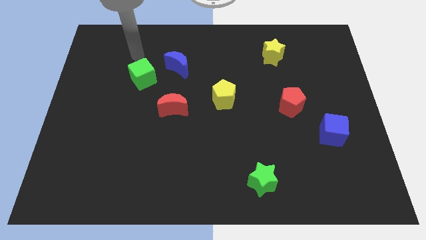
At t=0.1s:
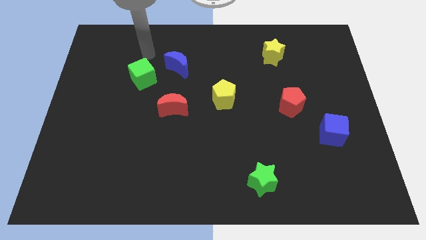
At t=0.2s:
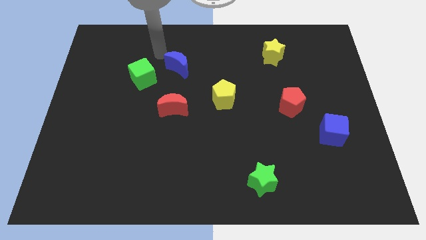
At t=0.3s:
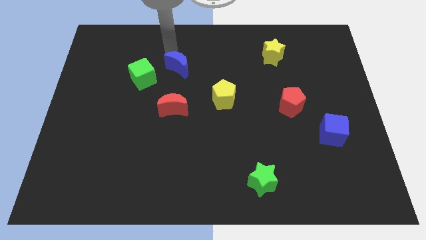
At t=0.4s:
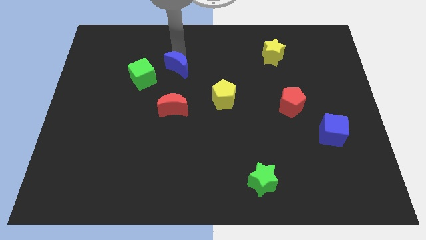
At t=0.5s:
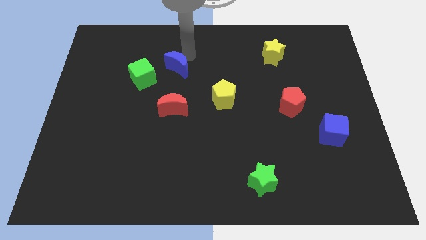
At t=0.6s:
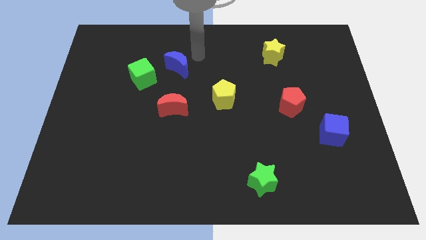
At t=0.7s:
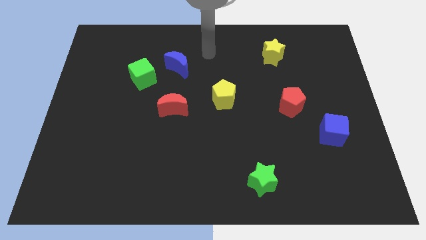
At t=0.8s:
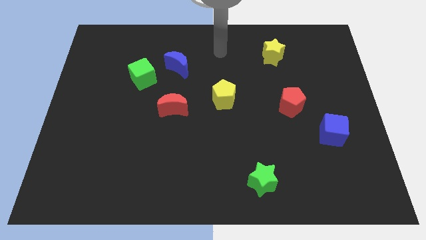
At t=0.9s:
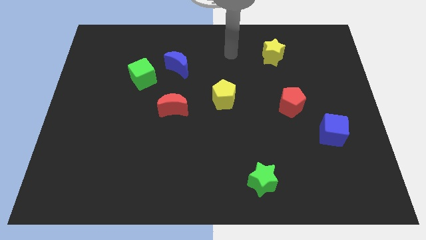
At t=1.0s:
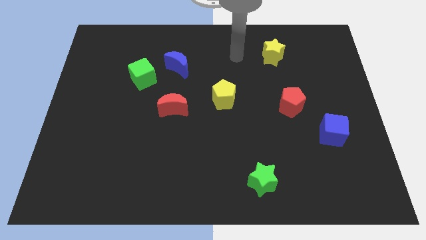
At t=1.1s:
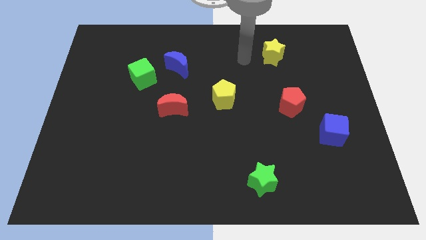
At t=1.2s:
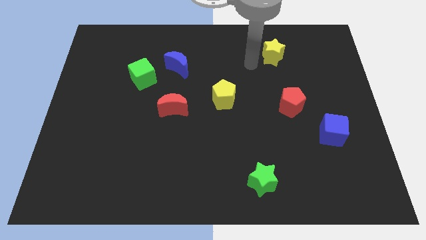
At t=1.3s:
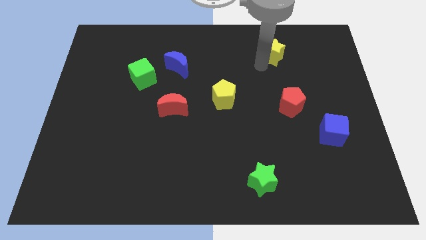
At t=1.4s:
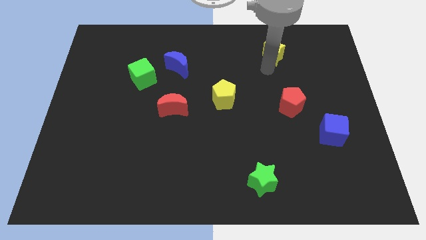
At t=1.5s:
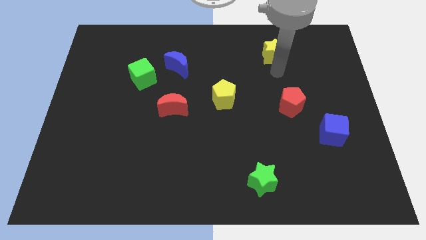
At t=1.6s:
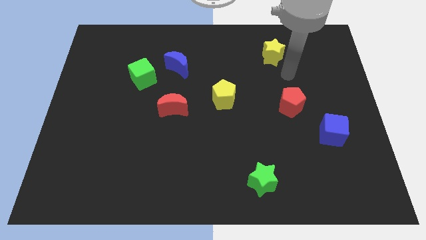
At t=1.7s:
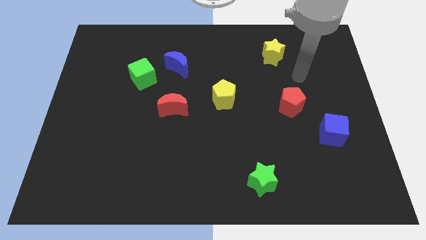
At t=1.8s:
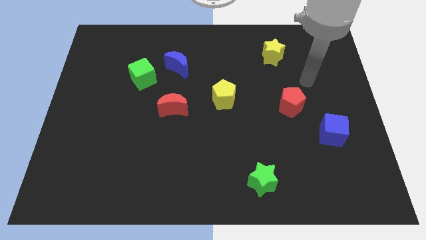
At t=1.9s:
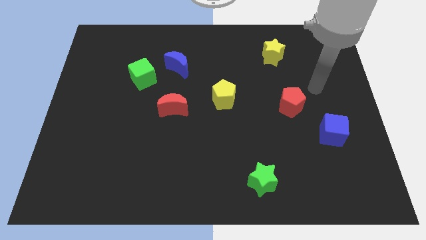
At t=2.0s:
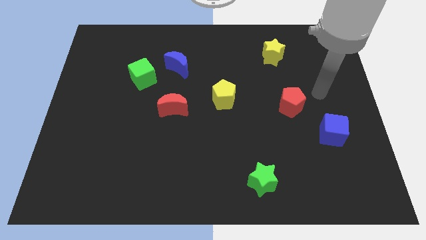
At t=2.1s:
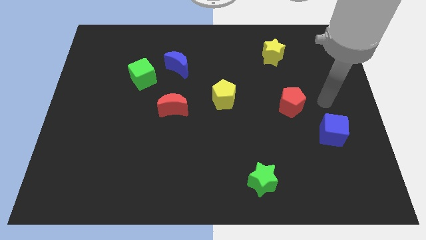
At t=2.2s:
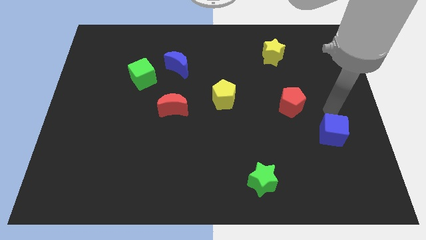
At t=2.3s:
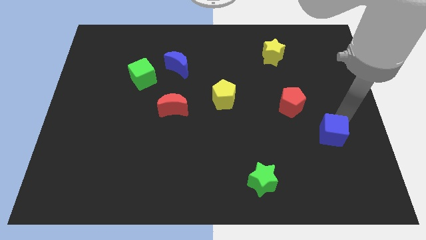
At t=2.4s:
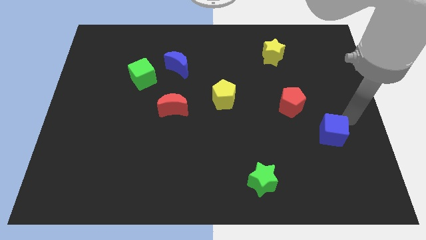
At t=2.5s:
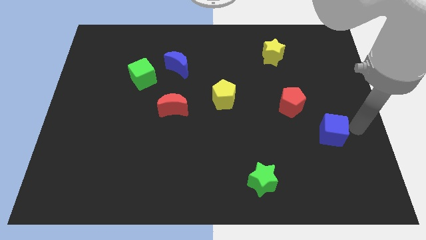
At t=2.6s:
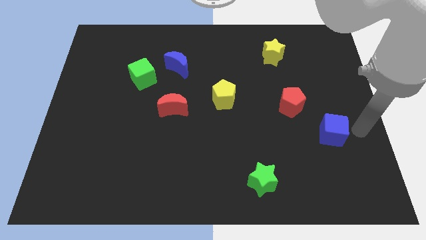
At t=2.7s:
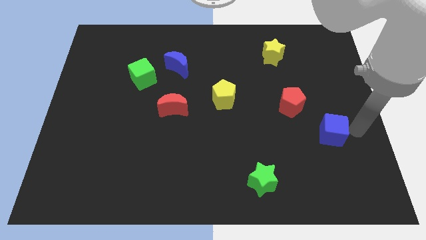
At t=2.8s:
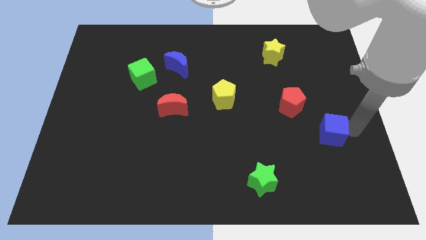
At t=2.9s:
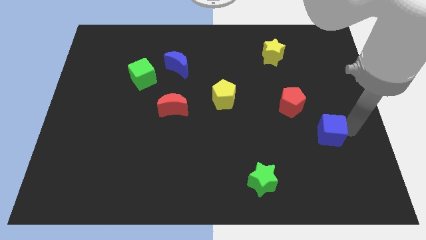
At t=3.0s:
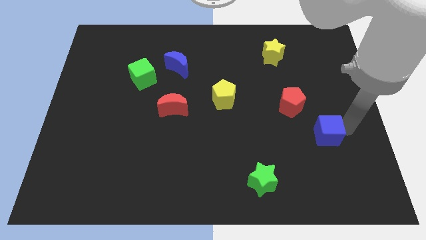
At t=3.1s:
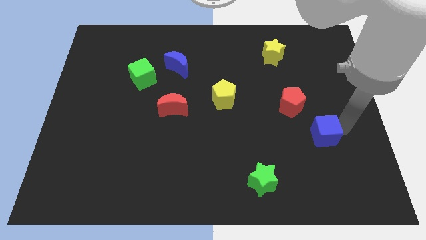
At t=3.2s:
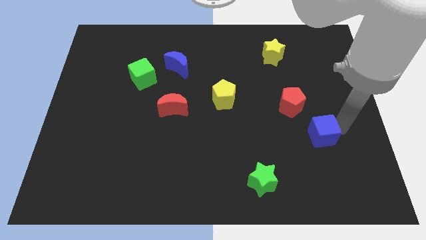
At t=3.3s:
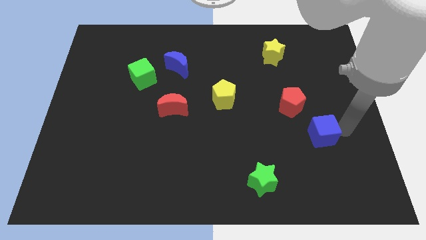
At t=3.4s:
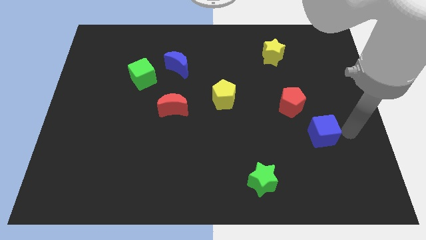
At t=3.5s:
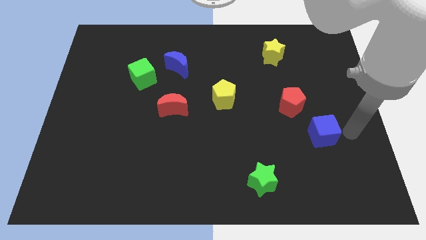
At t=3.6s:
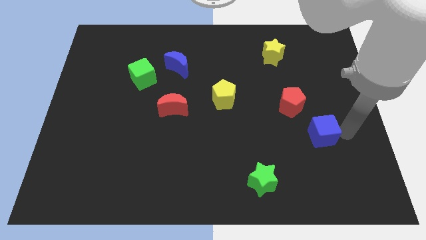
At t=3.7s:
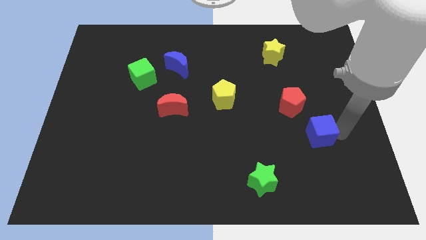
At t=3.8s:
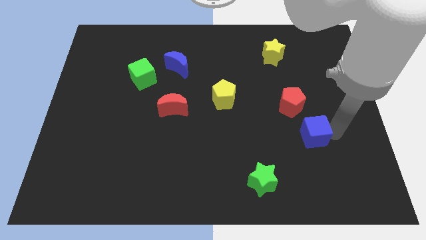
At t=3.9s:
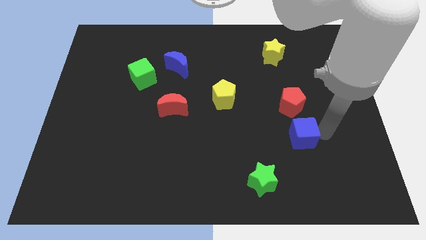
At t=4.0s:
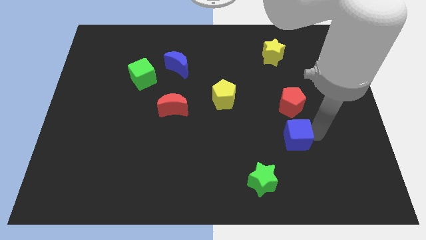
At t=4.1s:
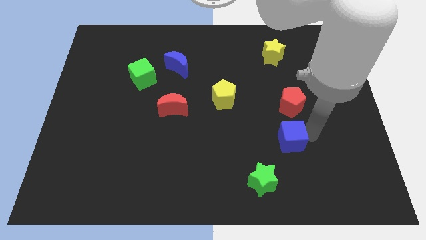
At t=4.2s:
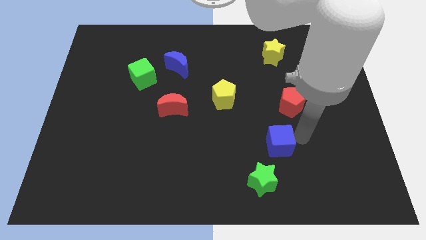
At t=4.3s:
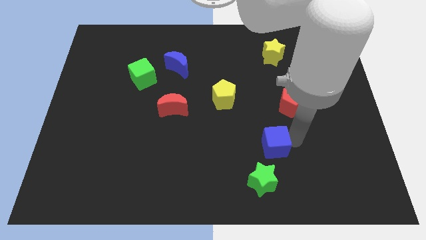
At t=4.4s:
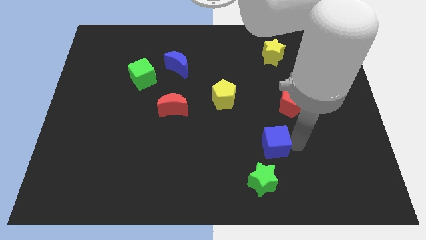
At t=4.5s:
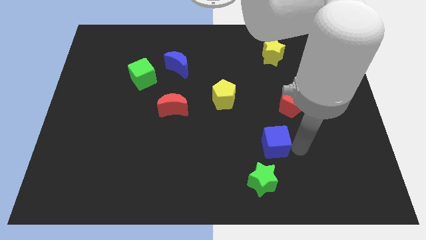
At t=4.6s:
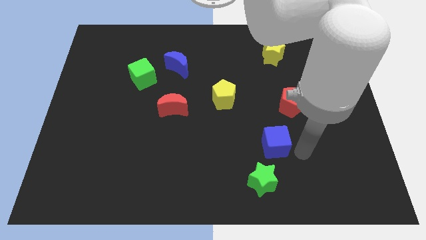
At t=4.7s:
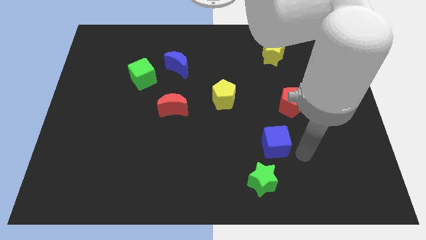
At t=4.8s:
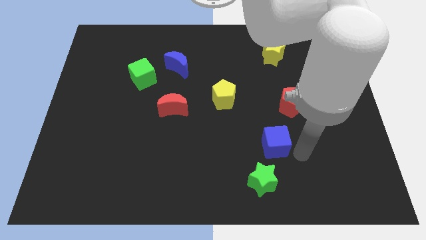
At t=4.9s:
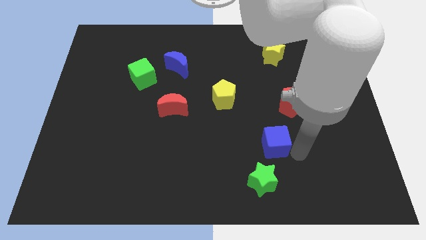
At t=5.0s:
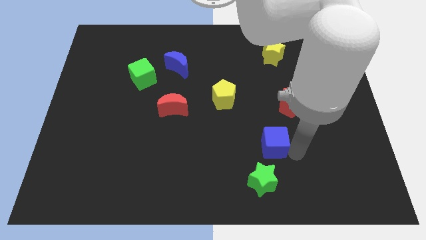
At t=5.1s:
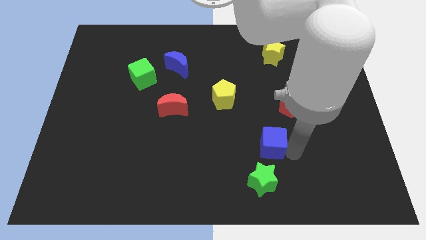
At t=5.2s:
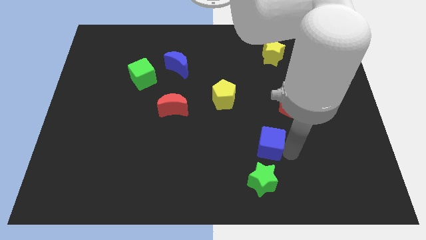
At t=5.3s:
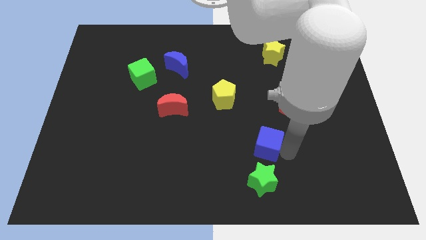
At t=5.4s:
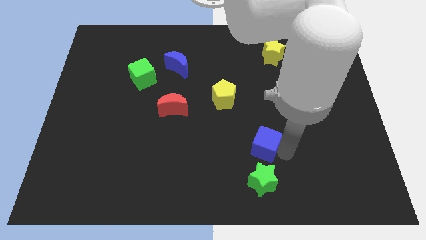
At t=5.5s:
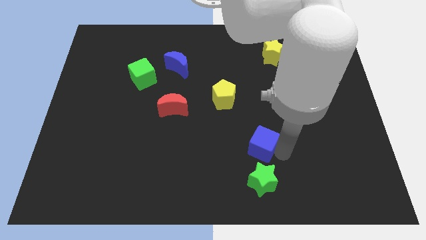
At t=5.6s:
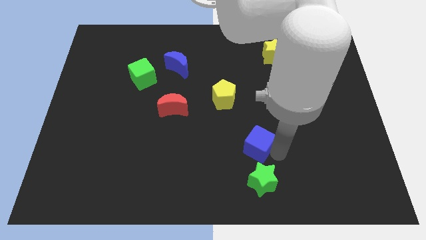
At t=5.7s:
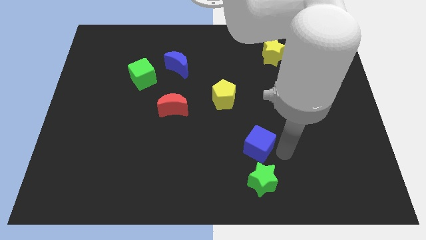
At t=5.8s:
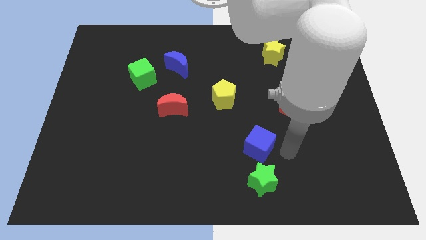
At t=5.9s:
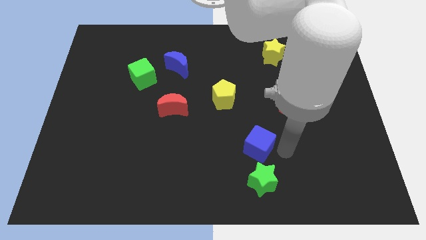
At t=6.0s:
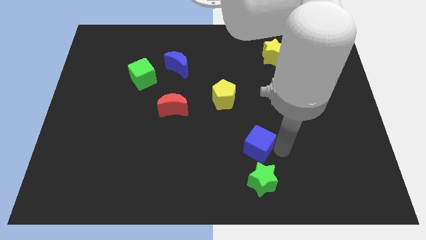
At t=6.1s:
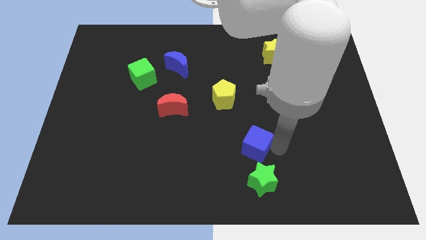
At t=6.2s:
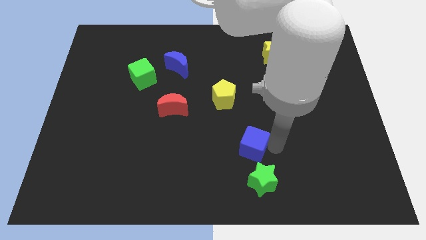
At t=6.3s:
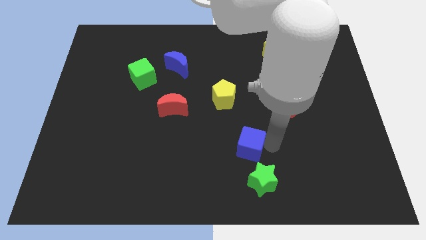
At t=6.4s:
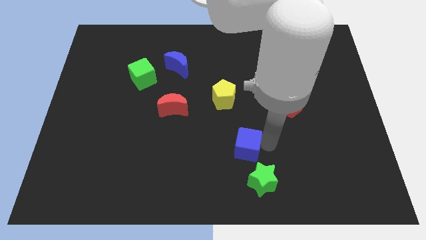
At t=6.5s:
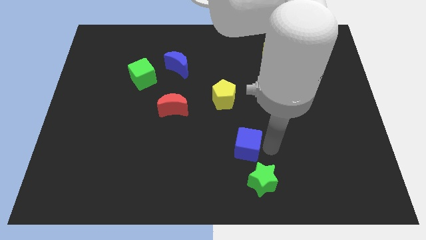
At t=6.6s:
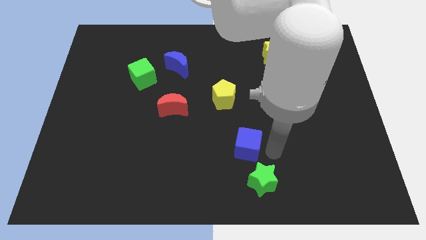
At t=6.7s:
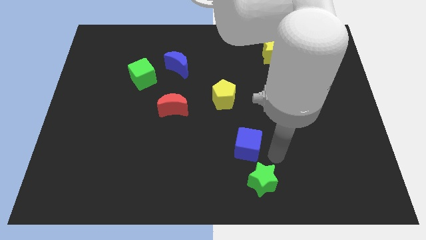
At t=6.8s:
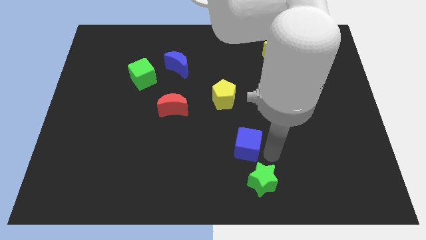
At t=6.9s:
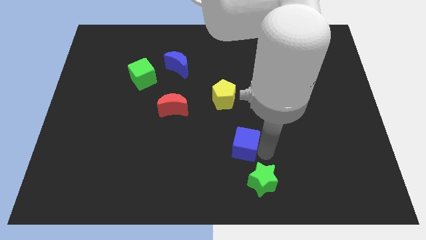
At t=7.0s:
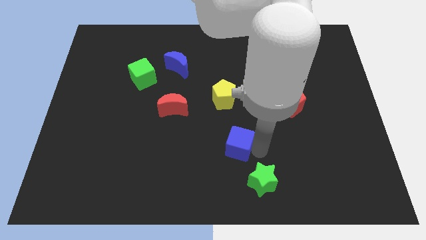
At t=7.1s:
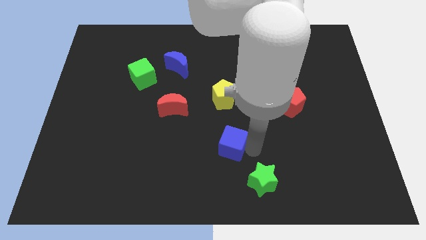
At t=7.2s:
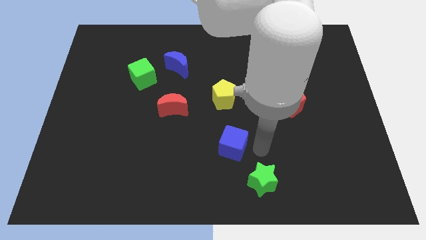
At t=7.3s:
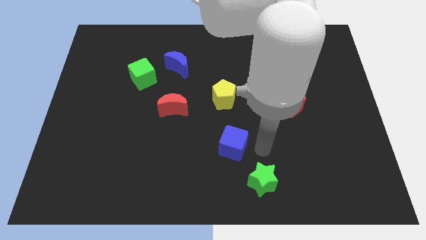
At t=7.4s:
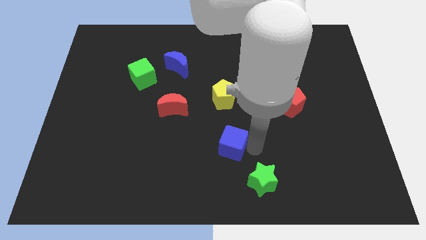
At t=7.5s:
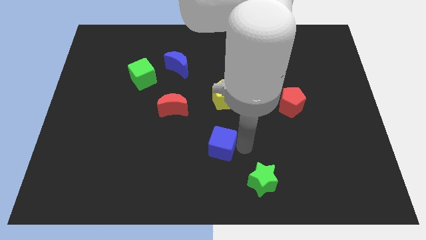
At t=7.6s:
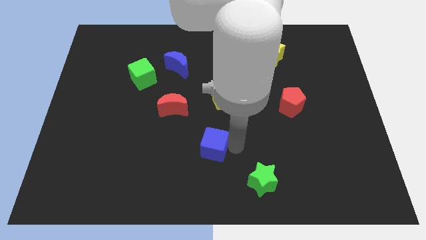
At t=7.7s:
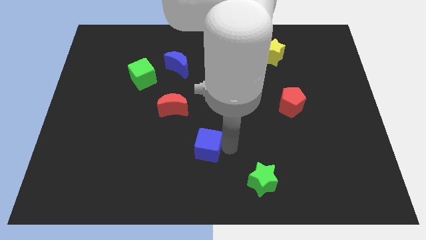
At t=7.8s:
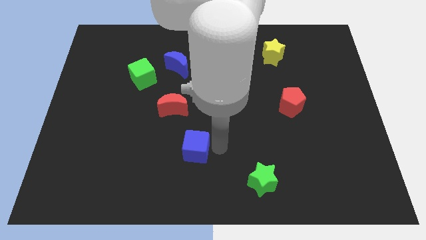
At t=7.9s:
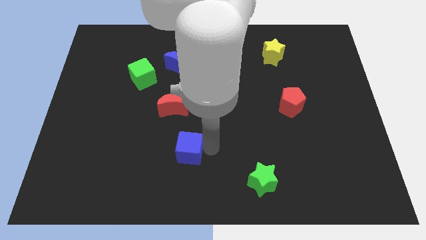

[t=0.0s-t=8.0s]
move the blue cube to the bottom of the red moon
